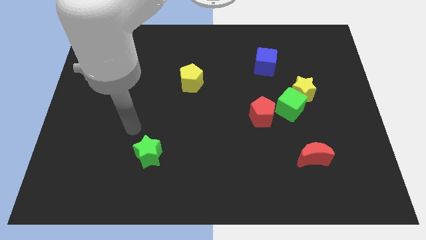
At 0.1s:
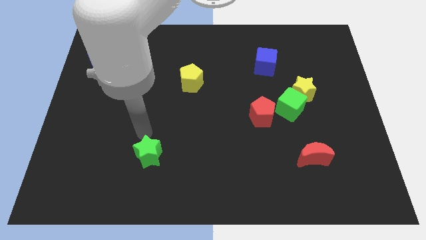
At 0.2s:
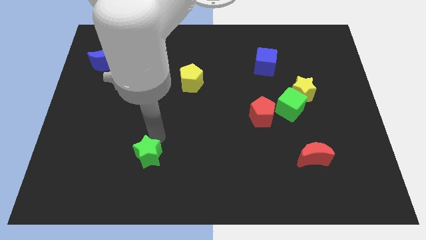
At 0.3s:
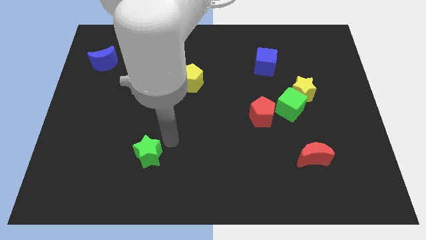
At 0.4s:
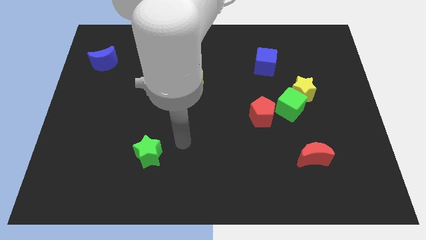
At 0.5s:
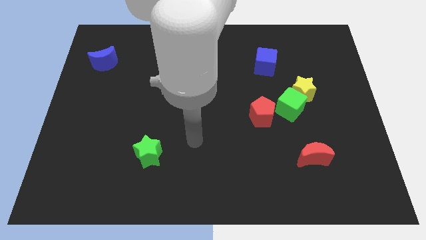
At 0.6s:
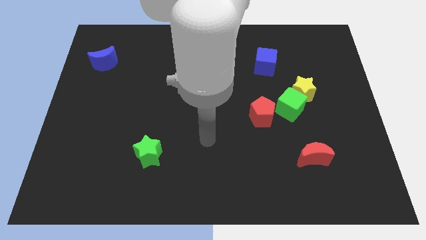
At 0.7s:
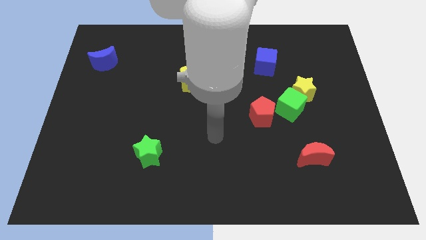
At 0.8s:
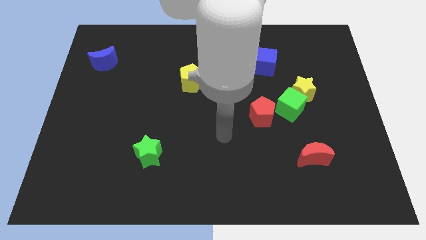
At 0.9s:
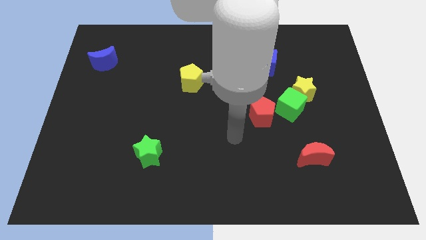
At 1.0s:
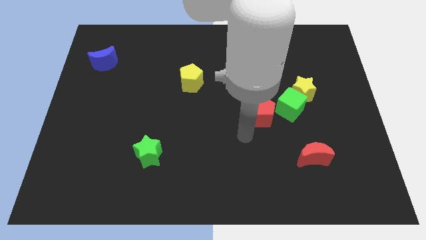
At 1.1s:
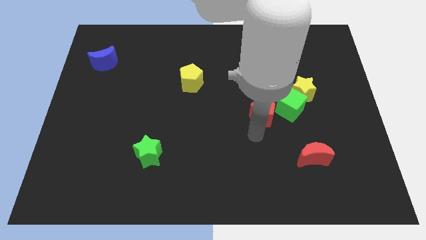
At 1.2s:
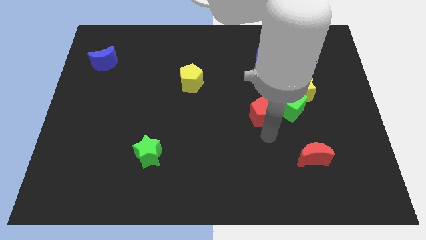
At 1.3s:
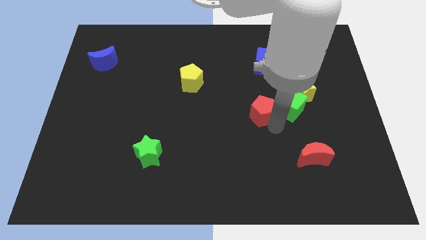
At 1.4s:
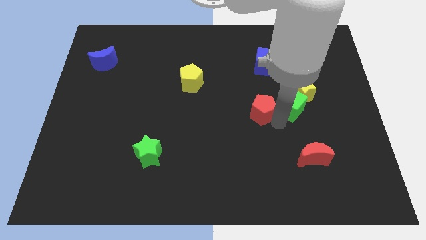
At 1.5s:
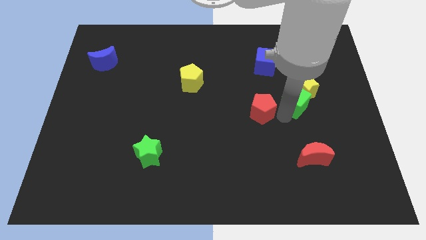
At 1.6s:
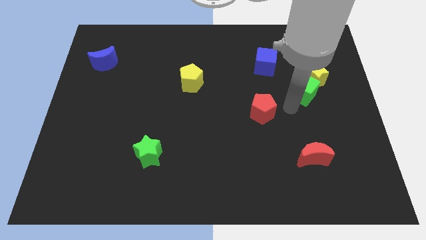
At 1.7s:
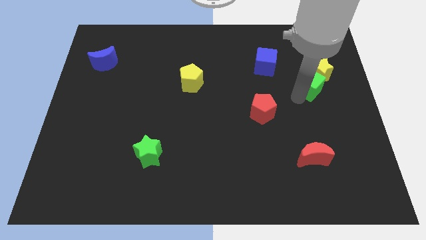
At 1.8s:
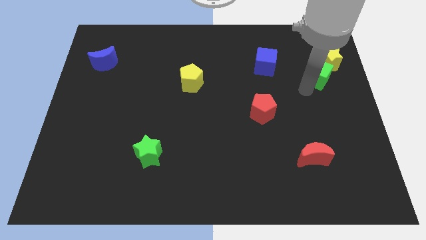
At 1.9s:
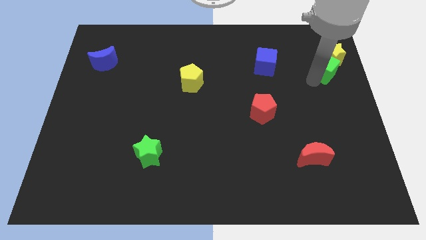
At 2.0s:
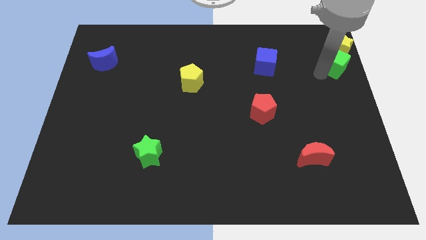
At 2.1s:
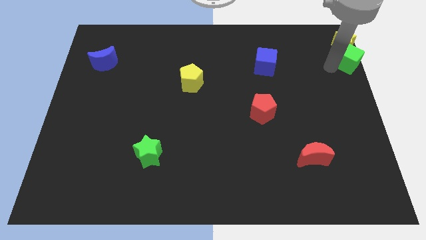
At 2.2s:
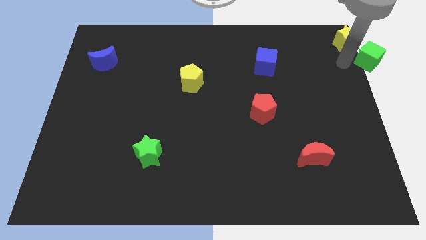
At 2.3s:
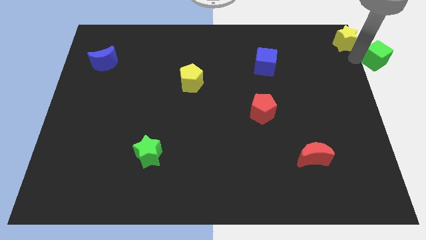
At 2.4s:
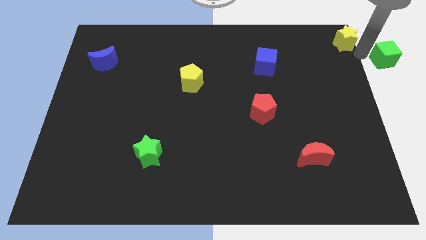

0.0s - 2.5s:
separate the yellow star from the green cube

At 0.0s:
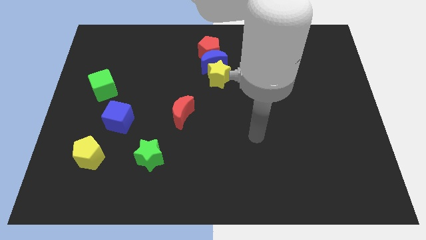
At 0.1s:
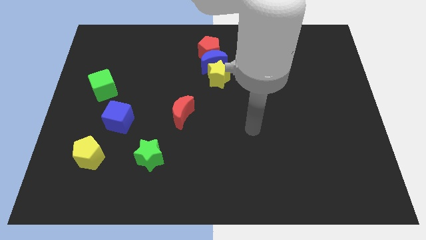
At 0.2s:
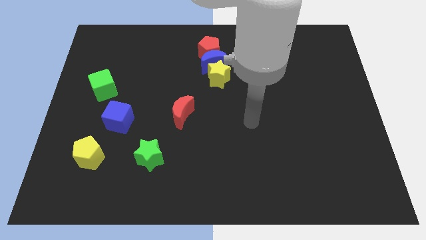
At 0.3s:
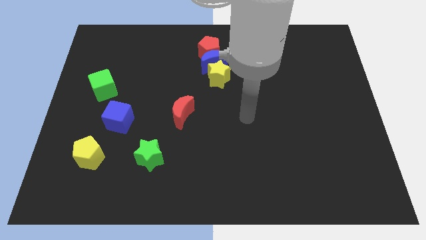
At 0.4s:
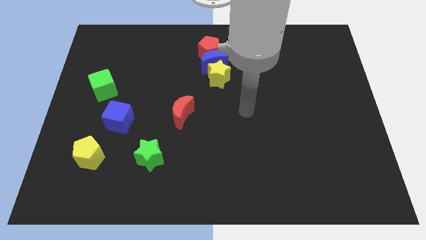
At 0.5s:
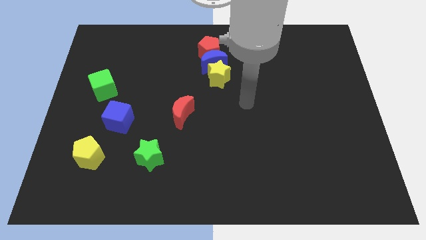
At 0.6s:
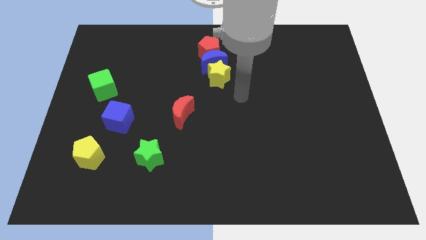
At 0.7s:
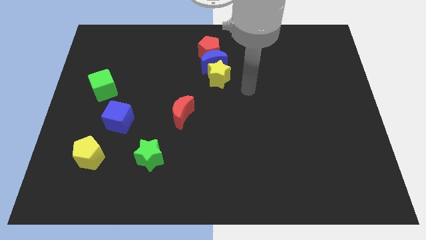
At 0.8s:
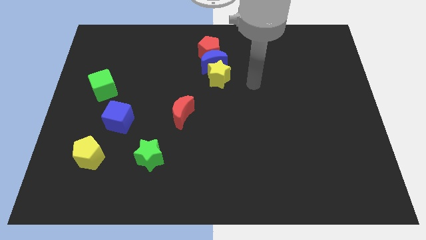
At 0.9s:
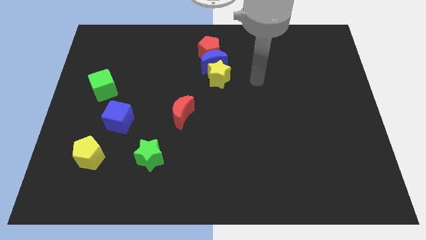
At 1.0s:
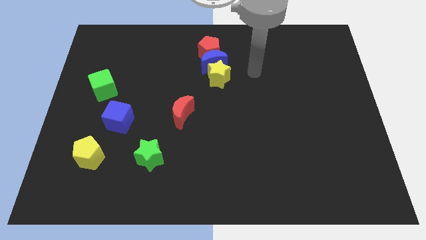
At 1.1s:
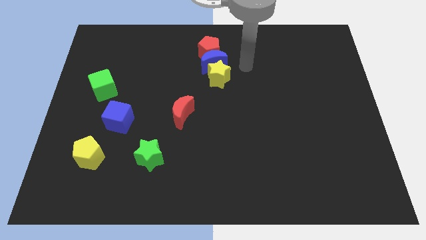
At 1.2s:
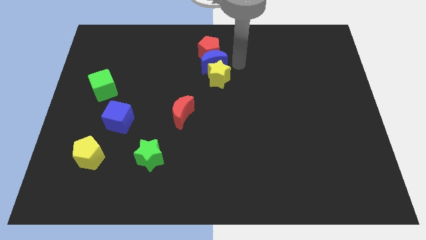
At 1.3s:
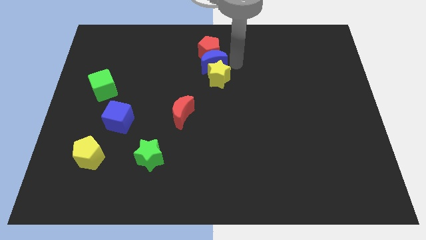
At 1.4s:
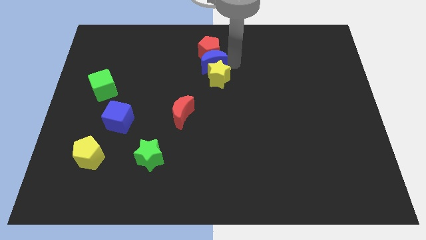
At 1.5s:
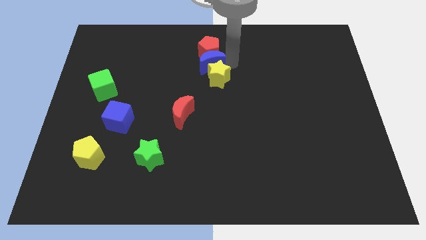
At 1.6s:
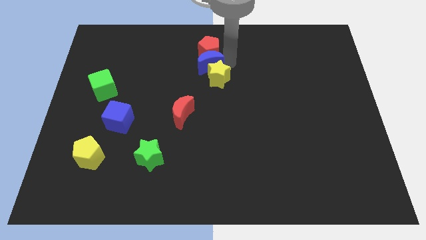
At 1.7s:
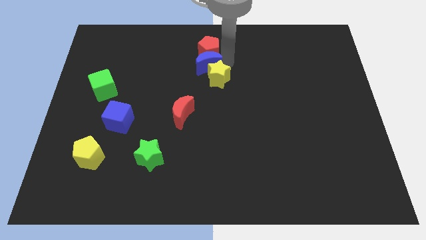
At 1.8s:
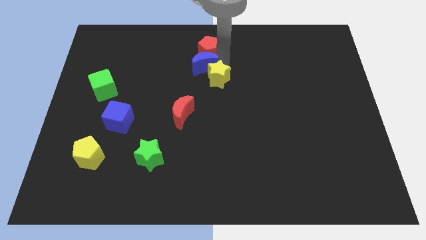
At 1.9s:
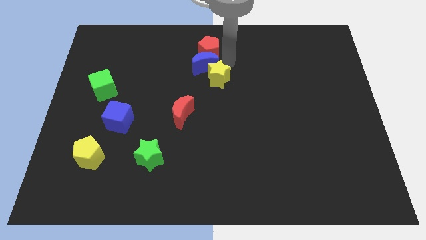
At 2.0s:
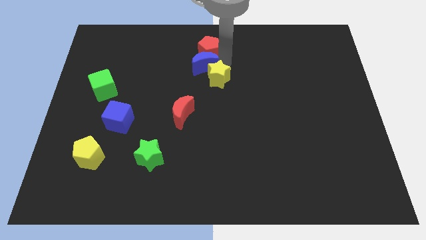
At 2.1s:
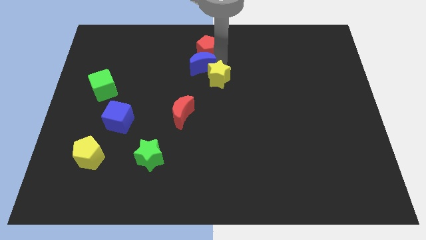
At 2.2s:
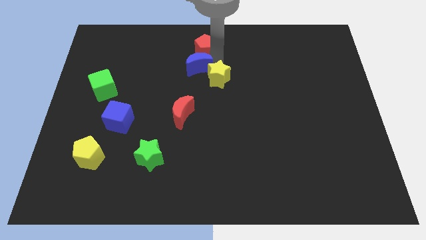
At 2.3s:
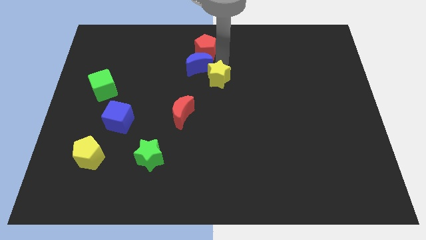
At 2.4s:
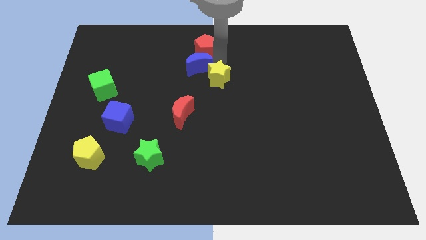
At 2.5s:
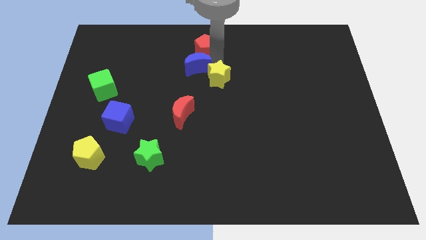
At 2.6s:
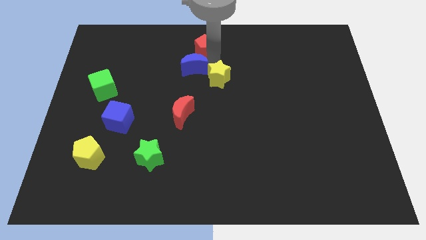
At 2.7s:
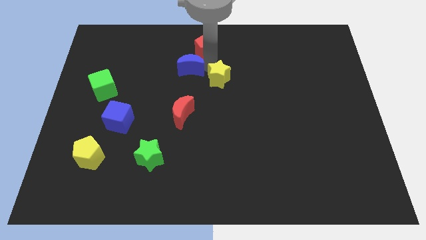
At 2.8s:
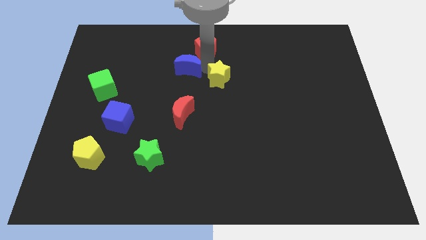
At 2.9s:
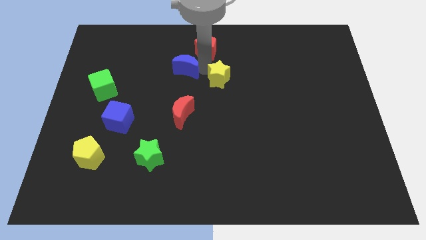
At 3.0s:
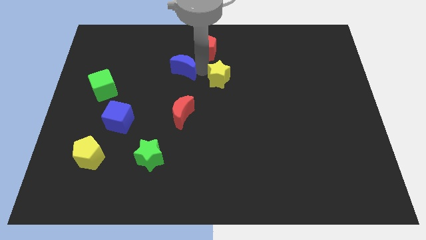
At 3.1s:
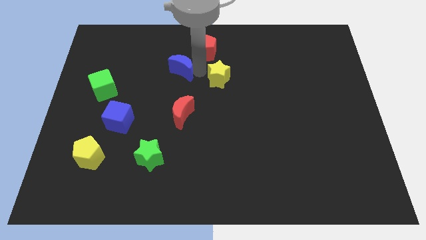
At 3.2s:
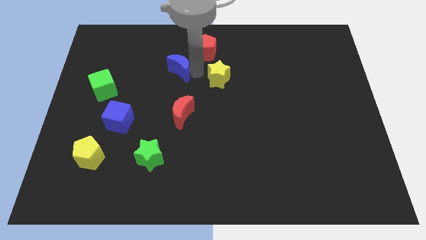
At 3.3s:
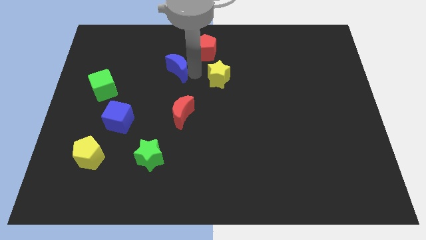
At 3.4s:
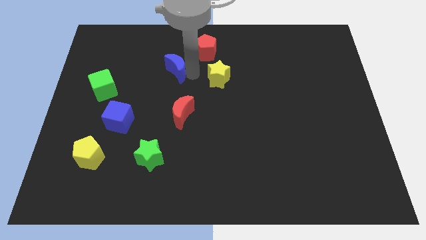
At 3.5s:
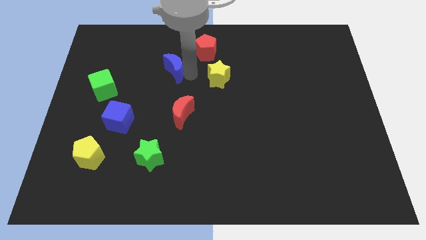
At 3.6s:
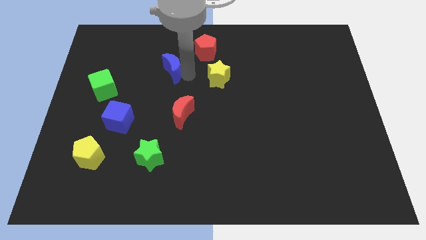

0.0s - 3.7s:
separate the blue moon from the red pentagon and yellow star

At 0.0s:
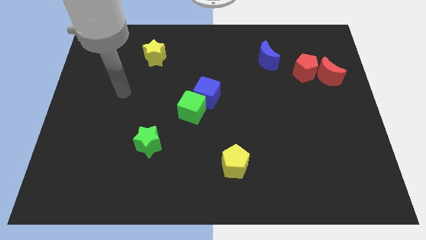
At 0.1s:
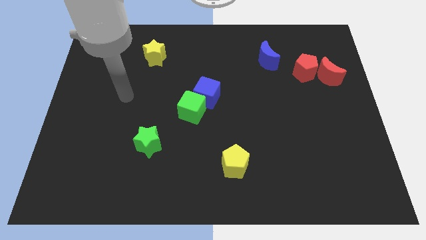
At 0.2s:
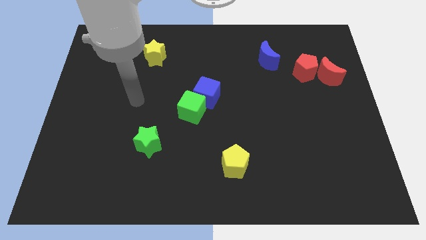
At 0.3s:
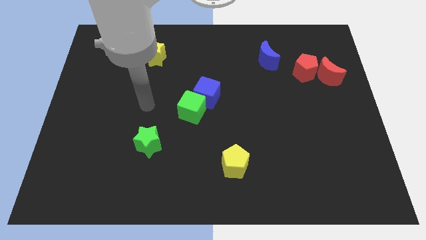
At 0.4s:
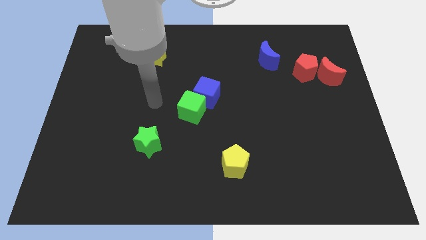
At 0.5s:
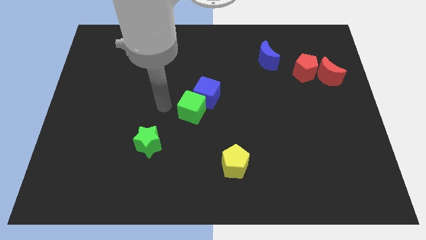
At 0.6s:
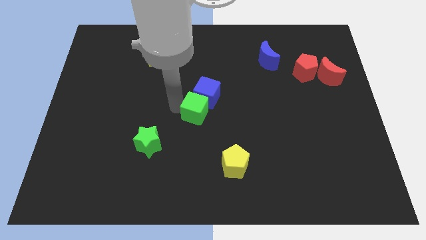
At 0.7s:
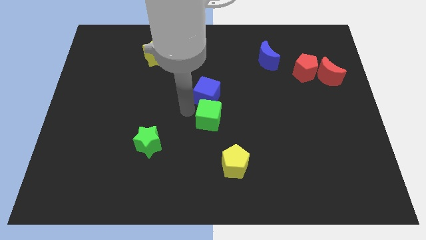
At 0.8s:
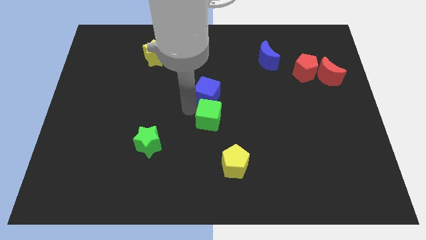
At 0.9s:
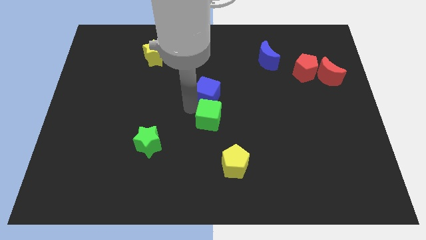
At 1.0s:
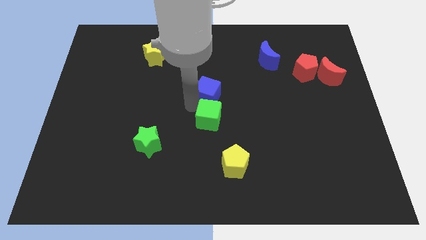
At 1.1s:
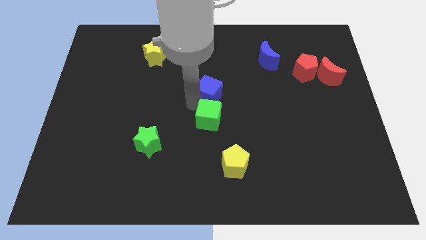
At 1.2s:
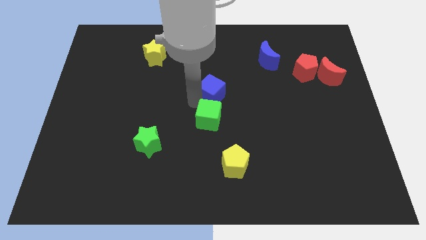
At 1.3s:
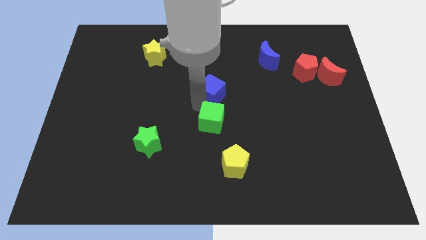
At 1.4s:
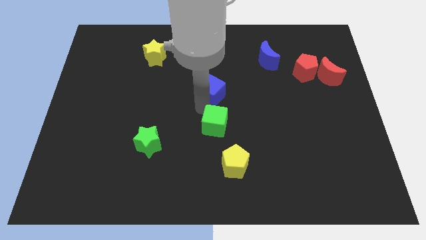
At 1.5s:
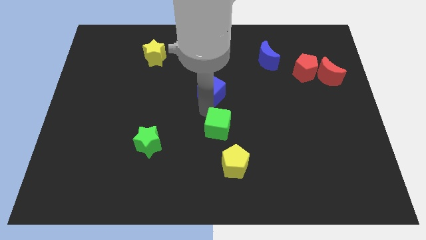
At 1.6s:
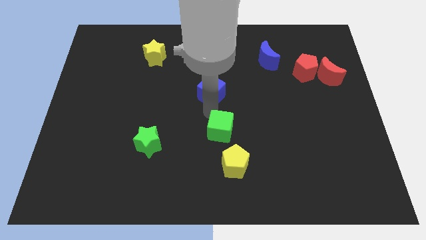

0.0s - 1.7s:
separate the blue cube from the green cube

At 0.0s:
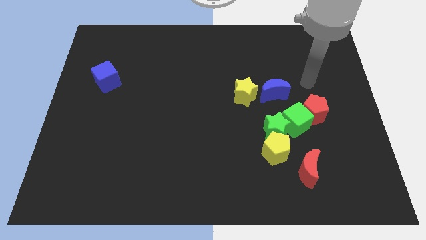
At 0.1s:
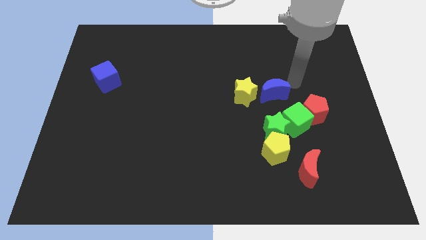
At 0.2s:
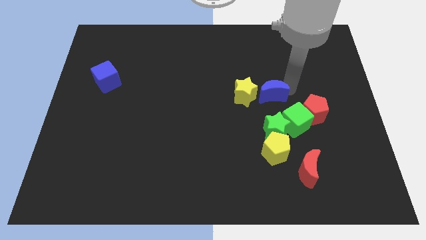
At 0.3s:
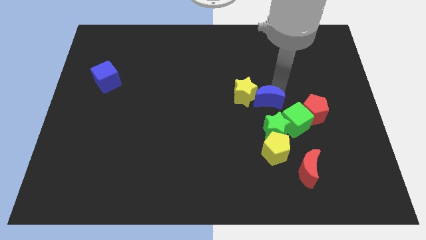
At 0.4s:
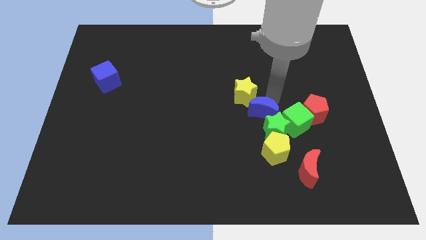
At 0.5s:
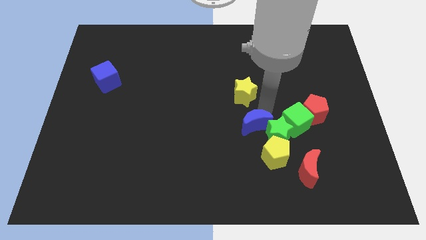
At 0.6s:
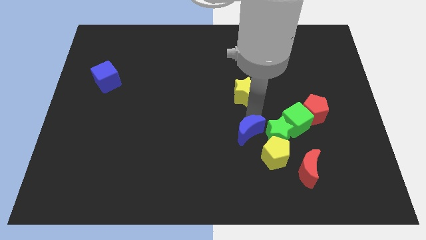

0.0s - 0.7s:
pull the yellow star apart from the blue moon

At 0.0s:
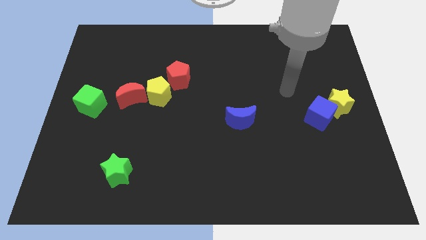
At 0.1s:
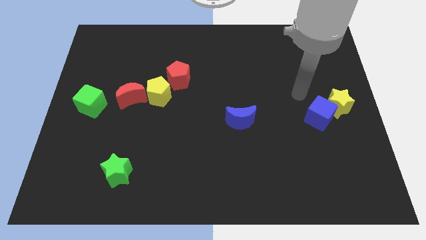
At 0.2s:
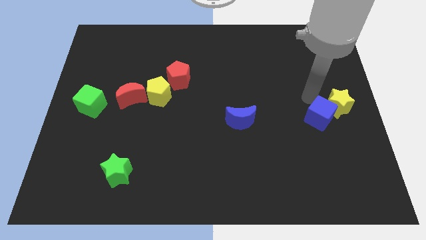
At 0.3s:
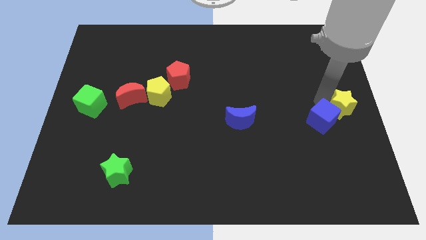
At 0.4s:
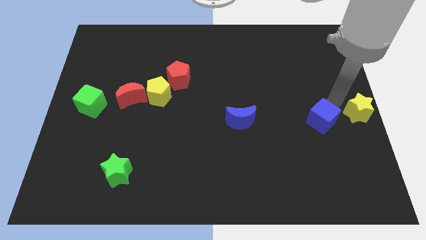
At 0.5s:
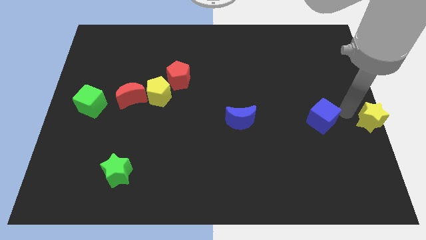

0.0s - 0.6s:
separate the blue cube from the yellow star

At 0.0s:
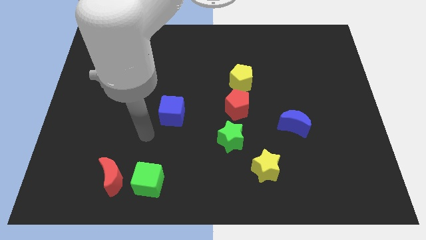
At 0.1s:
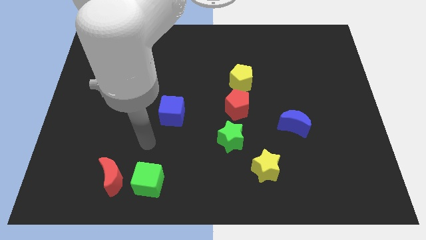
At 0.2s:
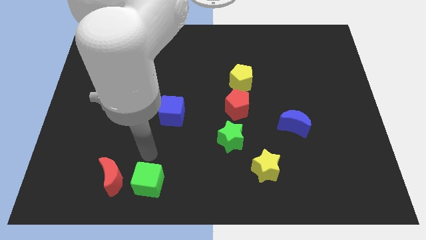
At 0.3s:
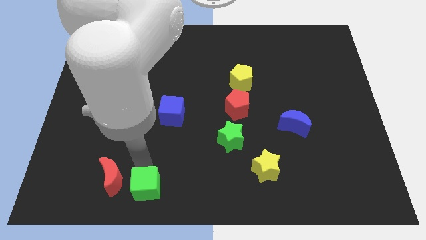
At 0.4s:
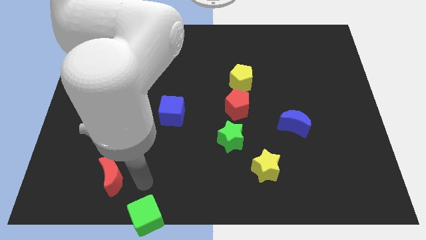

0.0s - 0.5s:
separate the red moon from the green cube
